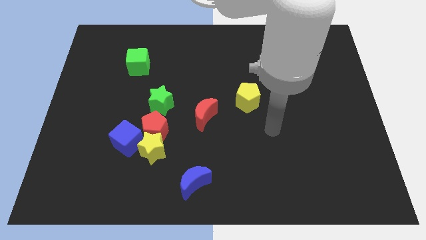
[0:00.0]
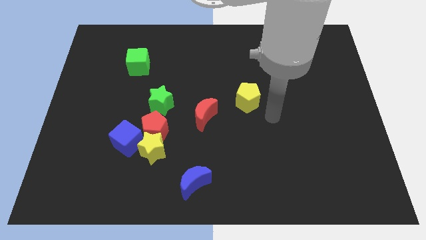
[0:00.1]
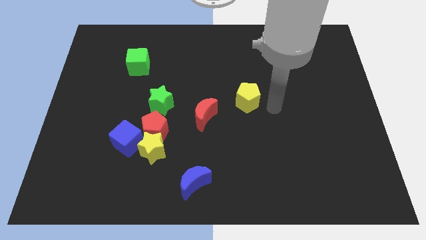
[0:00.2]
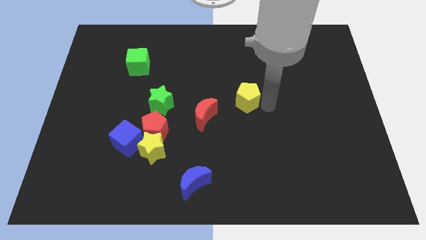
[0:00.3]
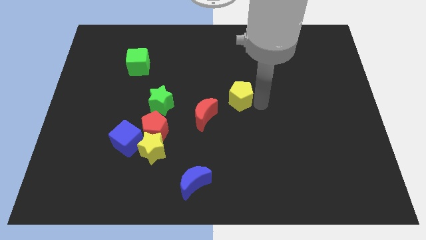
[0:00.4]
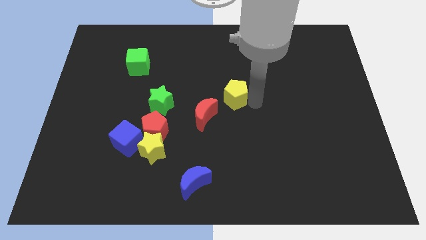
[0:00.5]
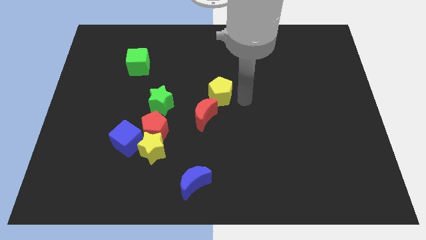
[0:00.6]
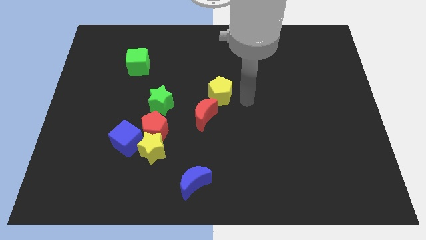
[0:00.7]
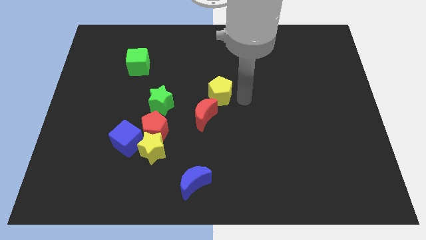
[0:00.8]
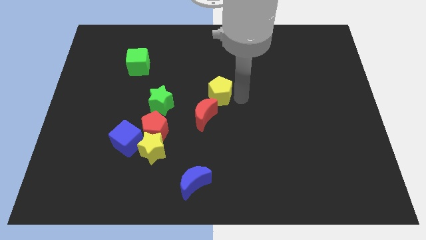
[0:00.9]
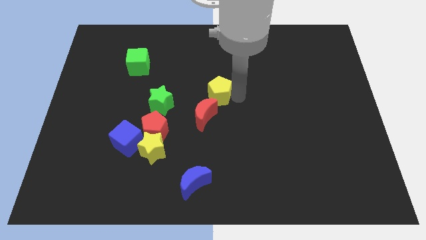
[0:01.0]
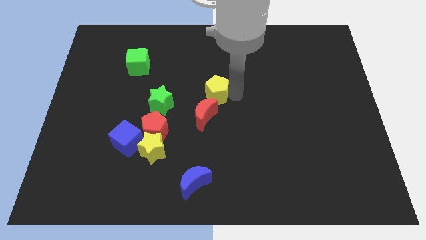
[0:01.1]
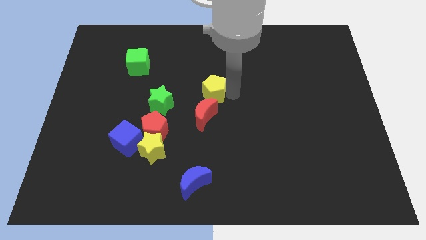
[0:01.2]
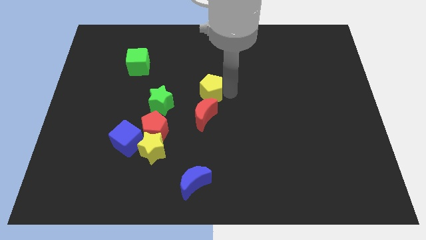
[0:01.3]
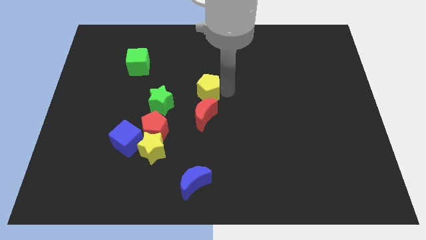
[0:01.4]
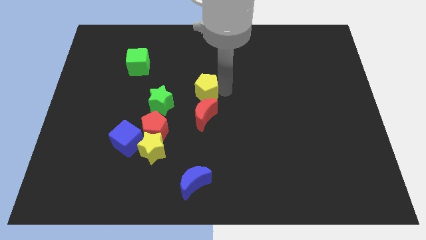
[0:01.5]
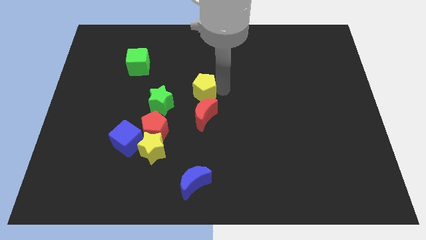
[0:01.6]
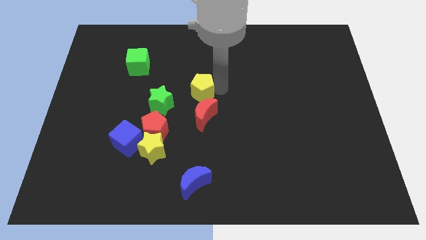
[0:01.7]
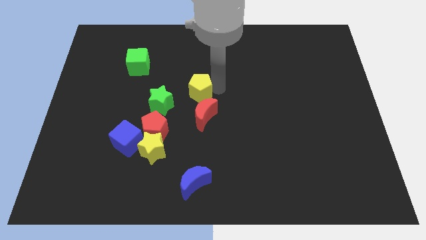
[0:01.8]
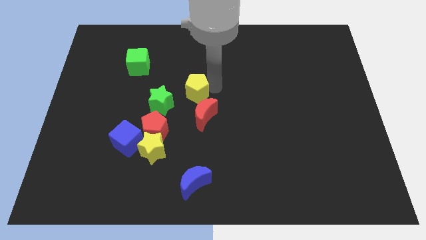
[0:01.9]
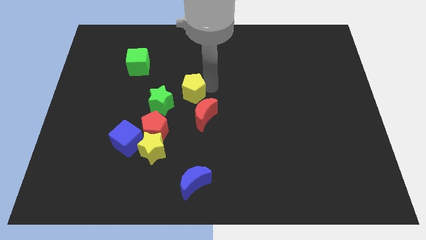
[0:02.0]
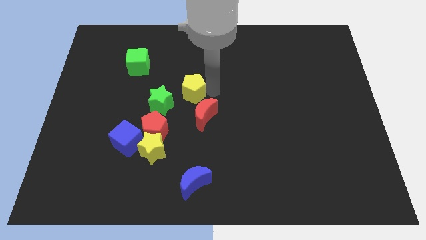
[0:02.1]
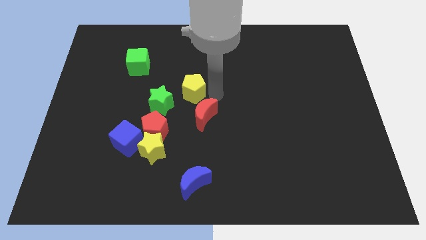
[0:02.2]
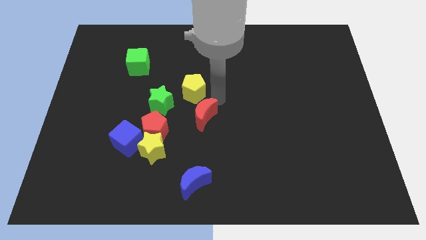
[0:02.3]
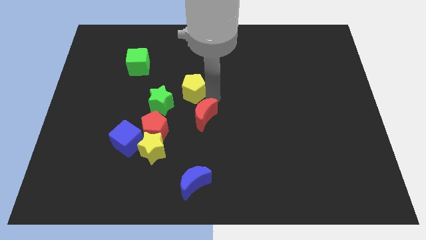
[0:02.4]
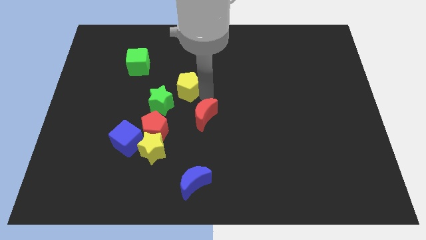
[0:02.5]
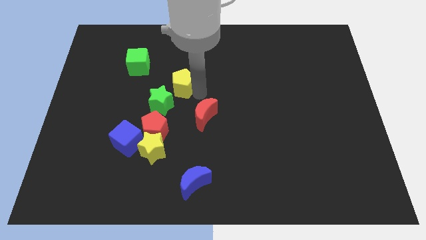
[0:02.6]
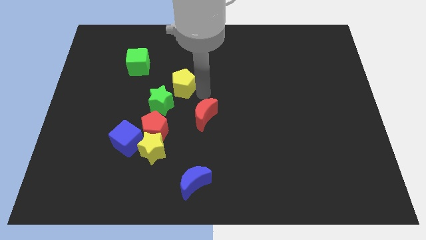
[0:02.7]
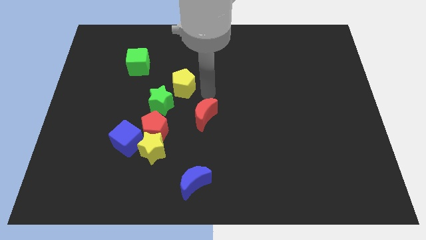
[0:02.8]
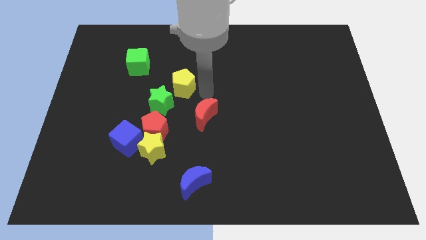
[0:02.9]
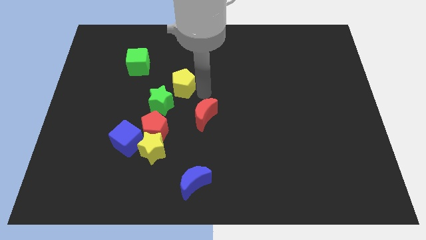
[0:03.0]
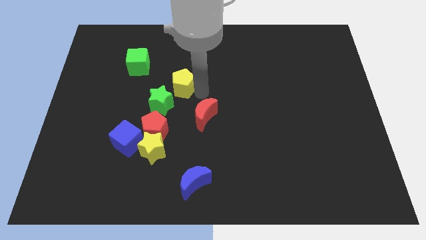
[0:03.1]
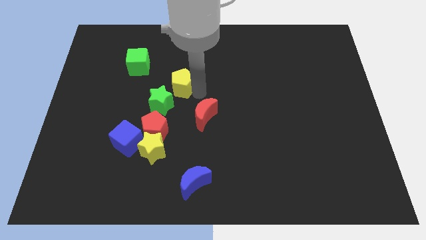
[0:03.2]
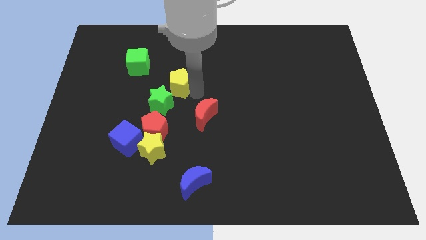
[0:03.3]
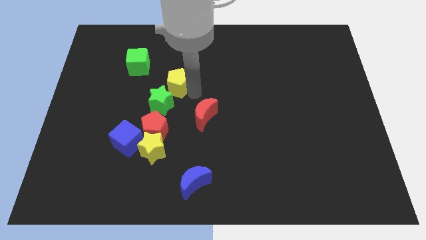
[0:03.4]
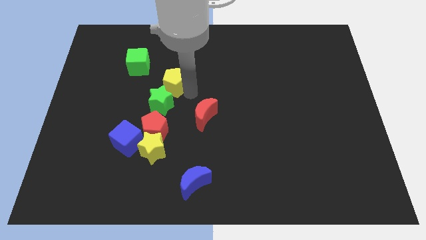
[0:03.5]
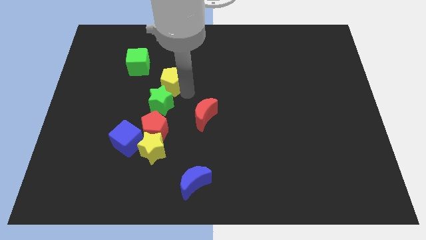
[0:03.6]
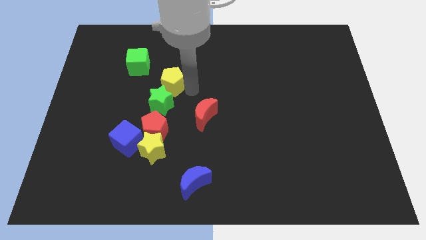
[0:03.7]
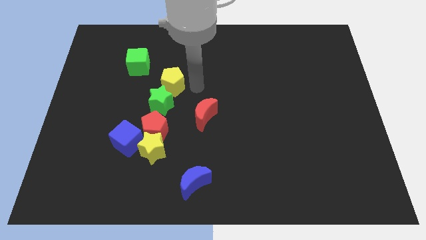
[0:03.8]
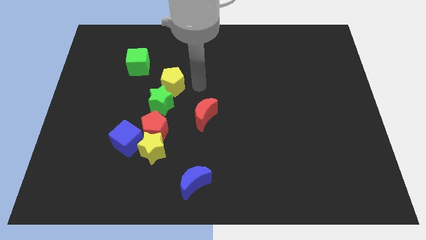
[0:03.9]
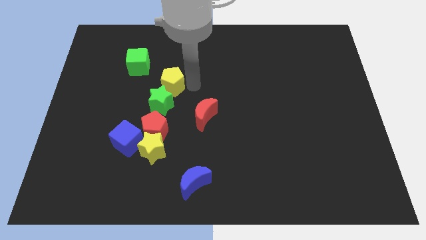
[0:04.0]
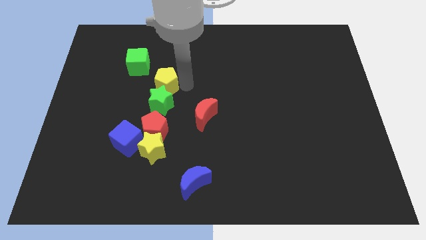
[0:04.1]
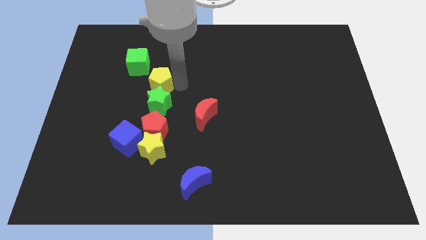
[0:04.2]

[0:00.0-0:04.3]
move the yellow pentagon left

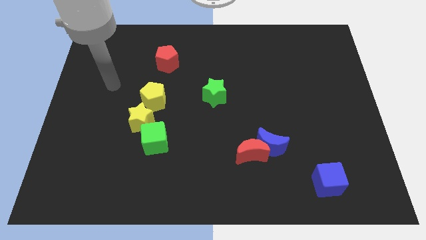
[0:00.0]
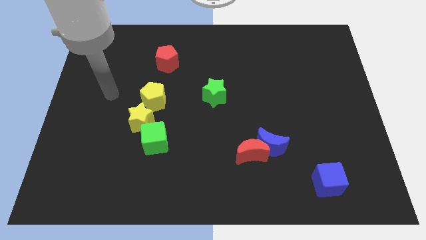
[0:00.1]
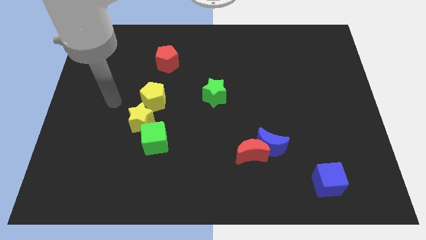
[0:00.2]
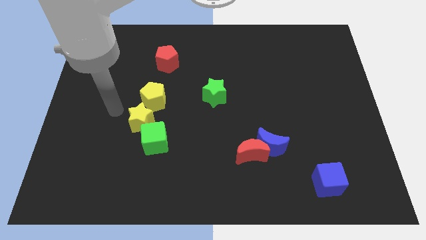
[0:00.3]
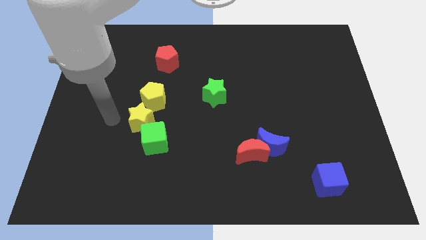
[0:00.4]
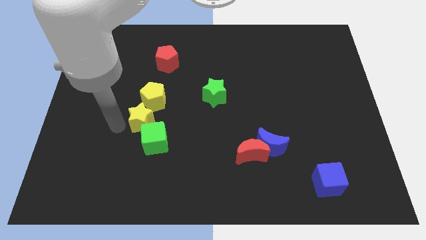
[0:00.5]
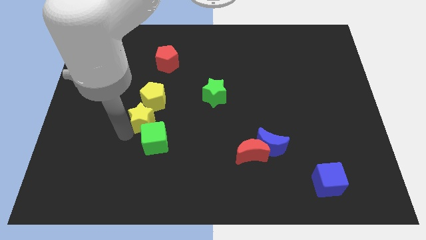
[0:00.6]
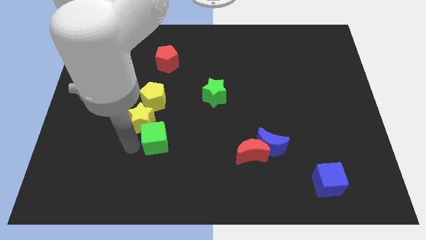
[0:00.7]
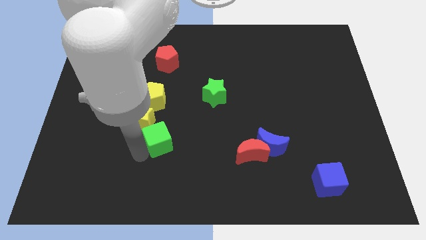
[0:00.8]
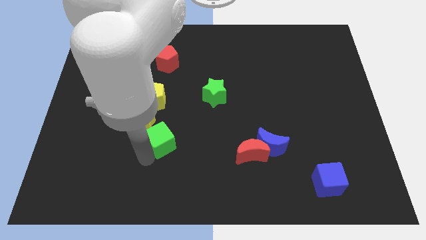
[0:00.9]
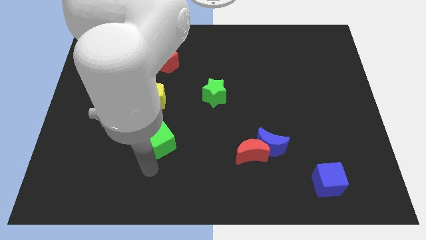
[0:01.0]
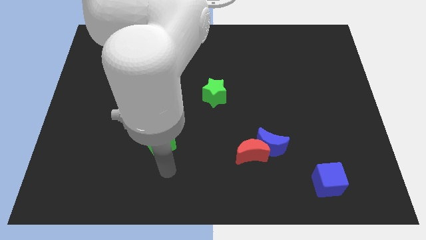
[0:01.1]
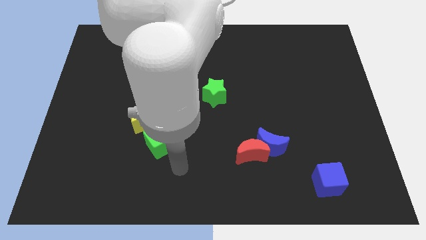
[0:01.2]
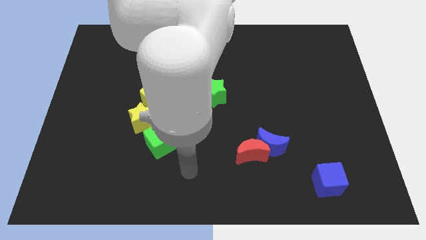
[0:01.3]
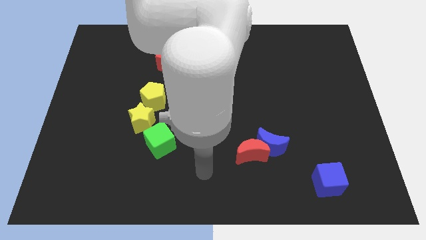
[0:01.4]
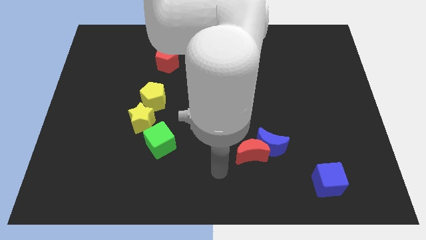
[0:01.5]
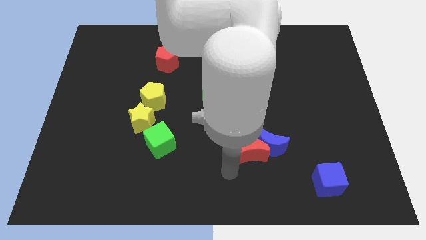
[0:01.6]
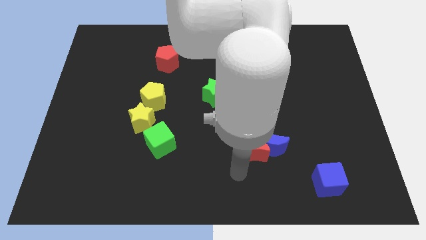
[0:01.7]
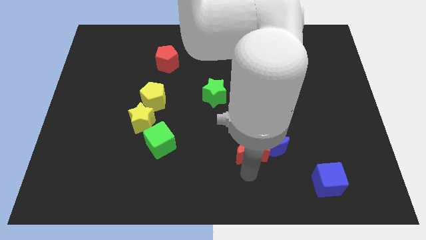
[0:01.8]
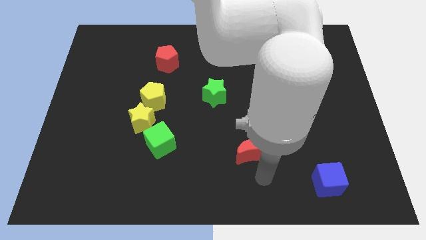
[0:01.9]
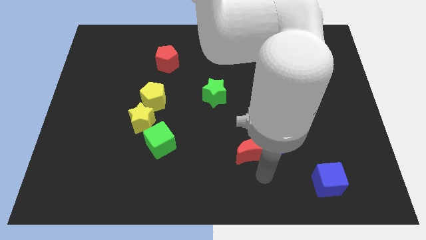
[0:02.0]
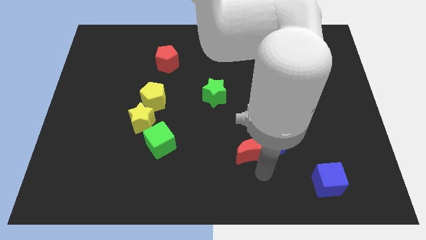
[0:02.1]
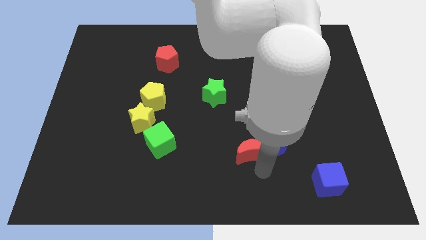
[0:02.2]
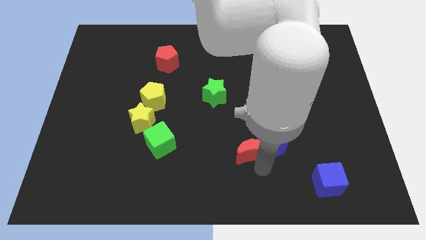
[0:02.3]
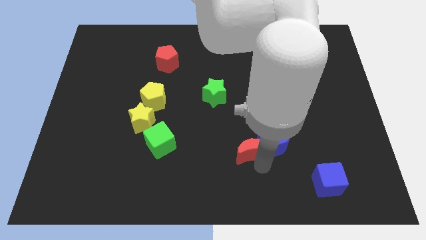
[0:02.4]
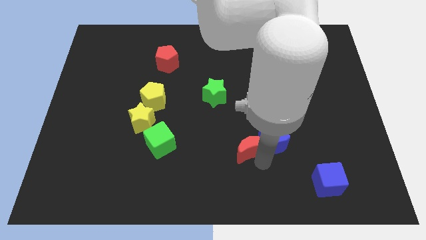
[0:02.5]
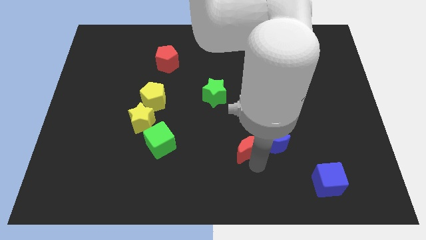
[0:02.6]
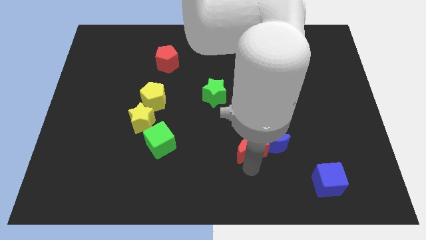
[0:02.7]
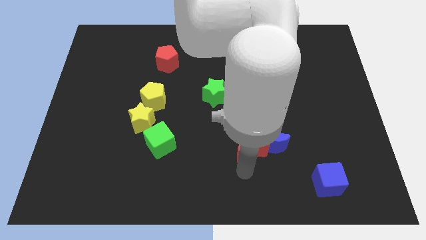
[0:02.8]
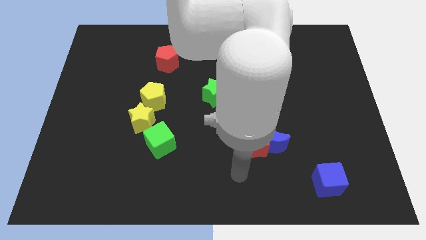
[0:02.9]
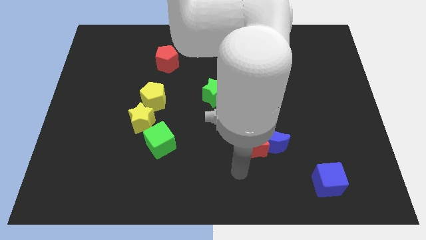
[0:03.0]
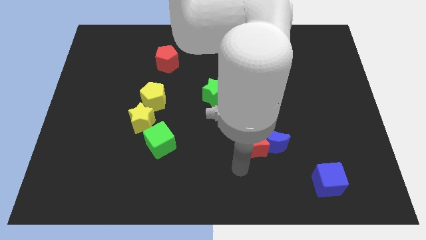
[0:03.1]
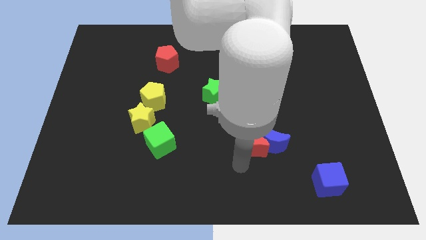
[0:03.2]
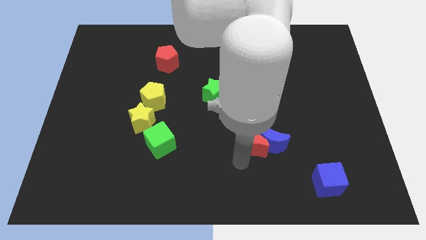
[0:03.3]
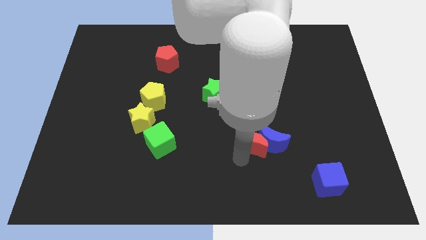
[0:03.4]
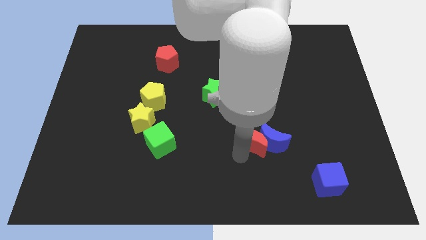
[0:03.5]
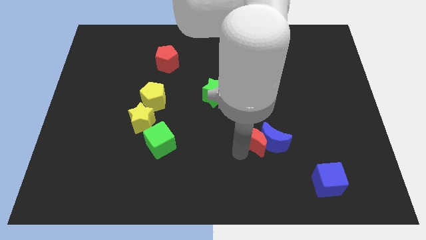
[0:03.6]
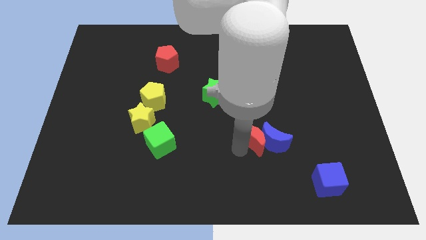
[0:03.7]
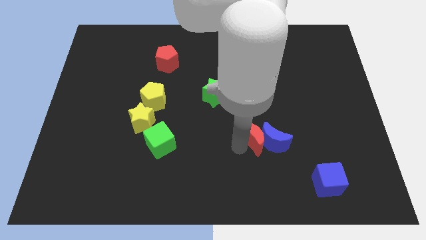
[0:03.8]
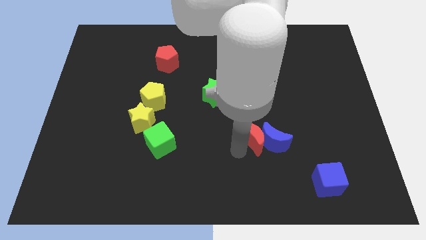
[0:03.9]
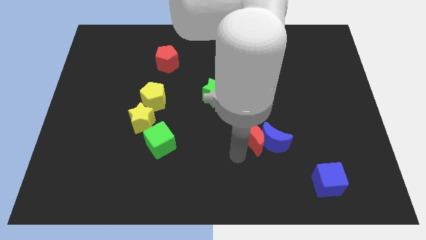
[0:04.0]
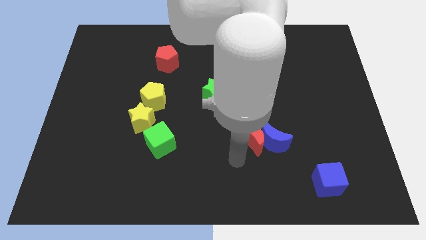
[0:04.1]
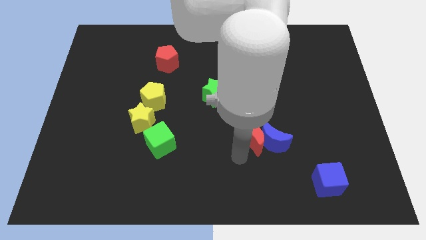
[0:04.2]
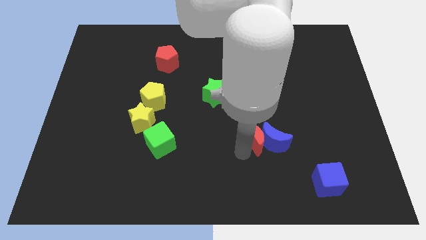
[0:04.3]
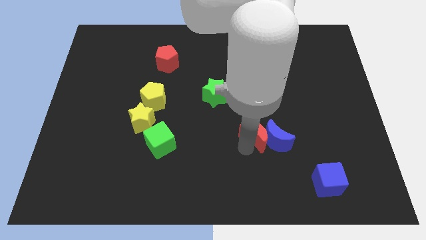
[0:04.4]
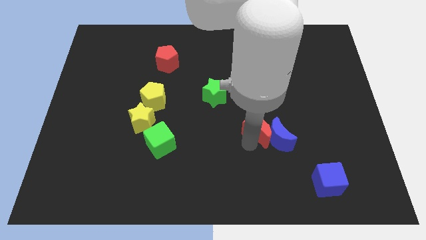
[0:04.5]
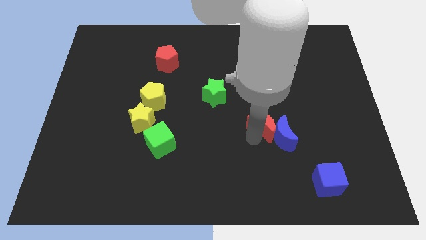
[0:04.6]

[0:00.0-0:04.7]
move the red moon diagonally up and right a little
